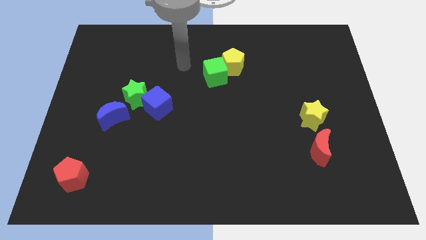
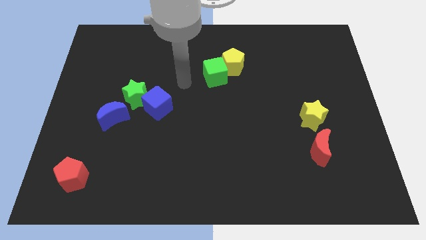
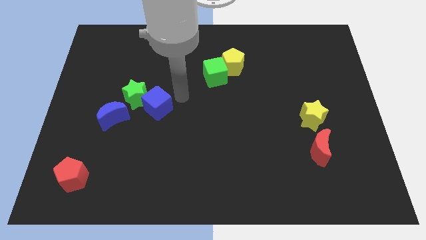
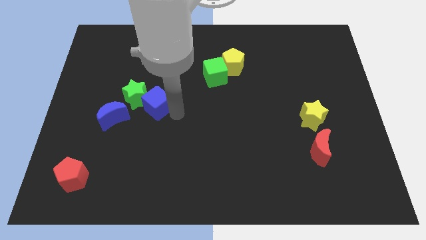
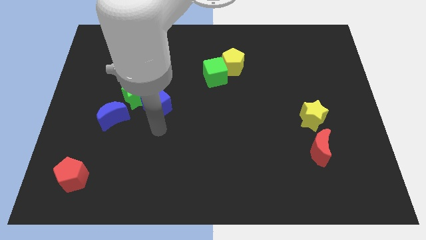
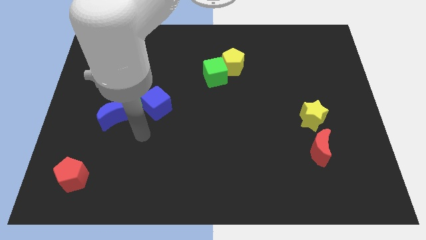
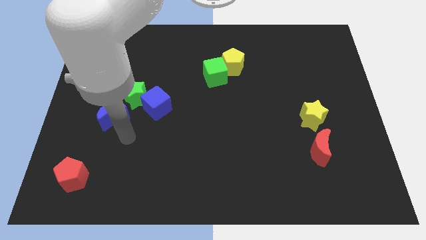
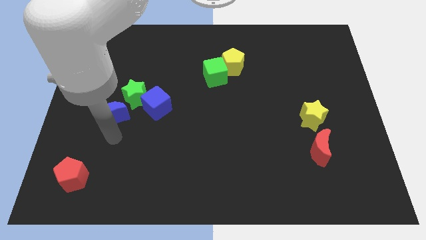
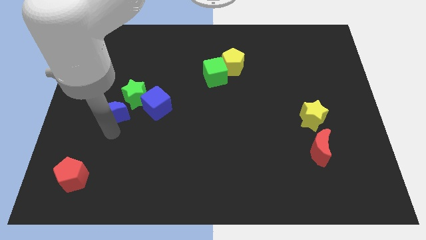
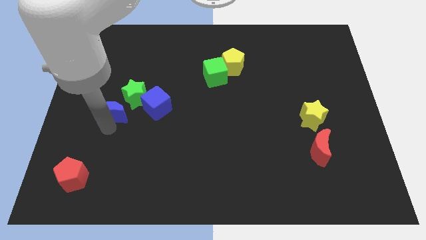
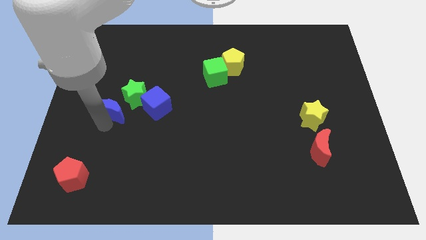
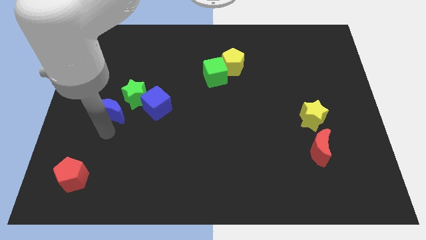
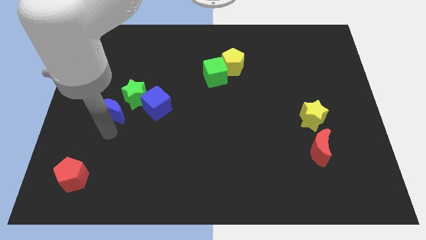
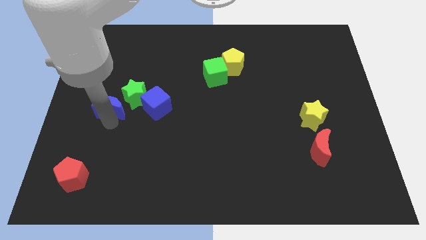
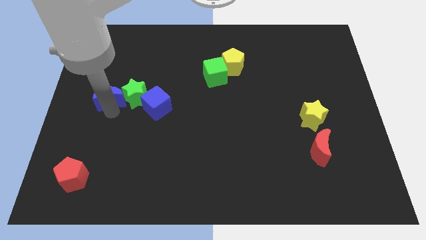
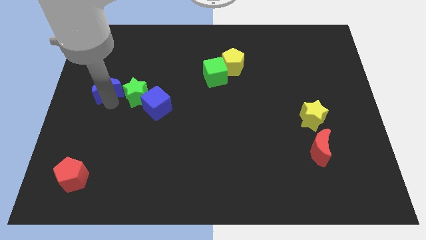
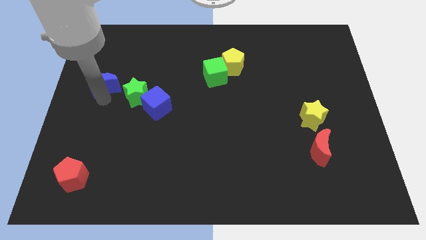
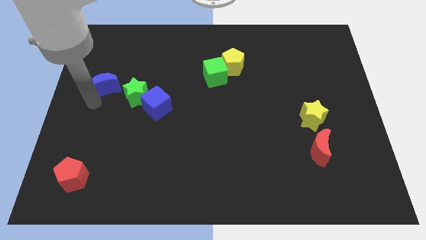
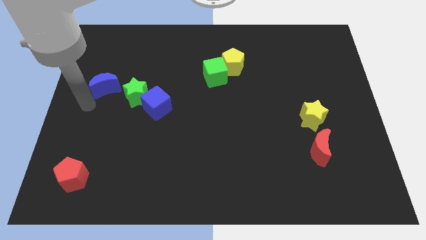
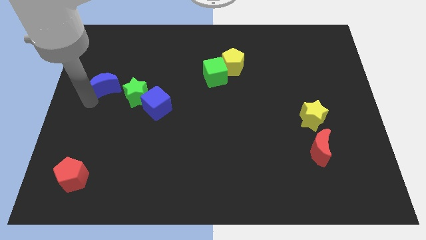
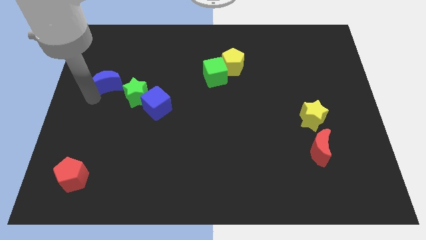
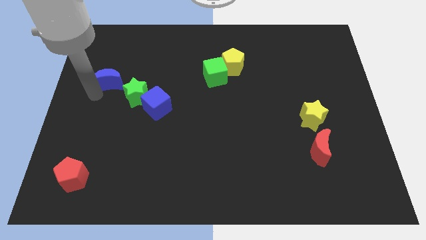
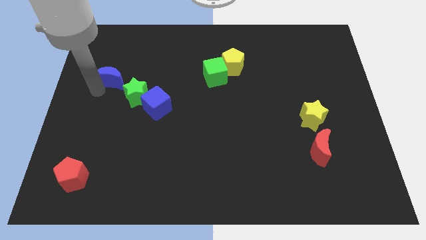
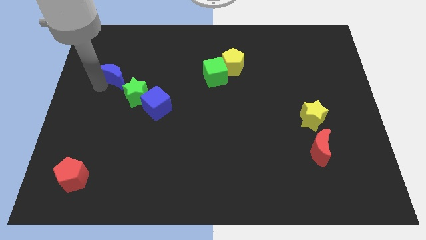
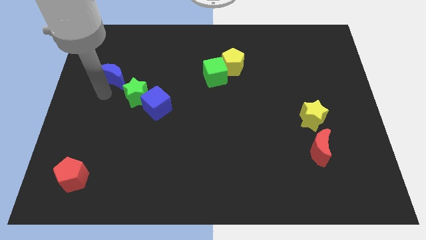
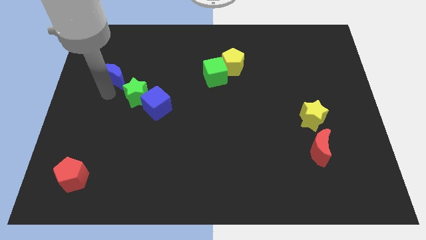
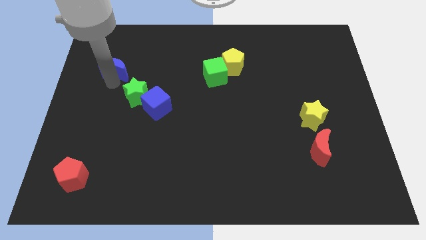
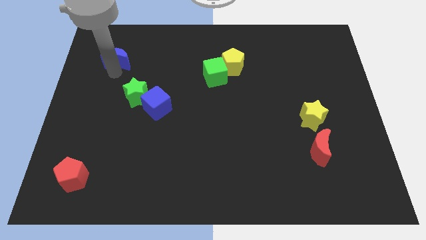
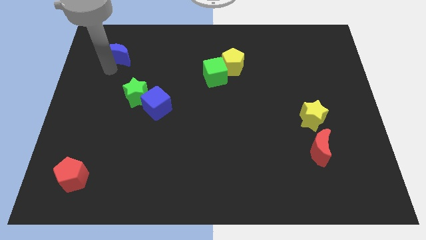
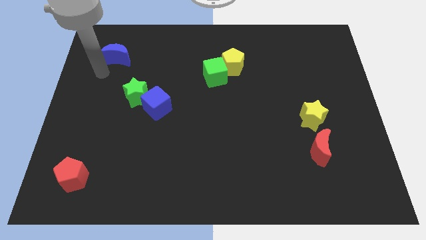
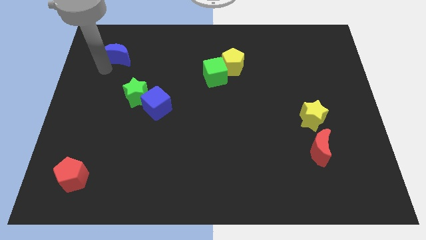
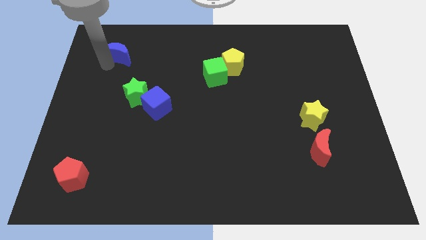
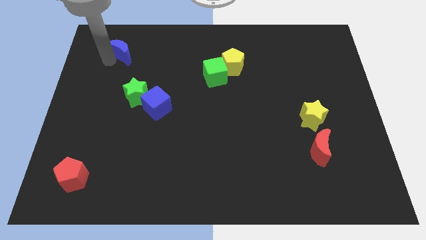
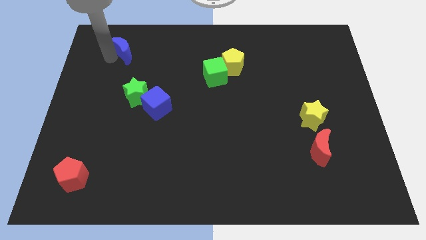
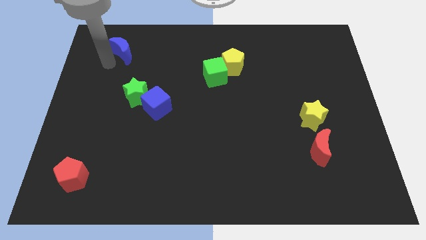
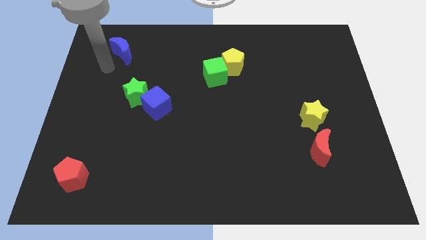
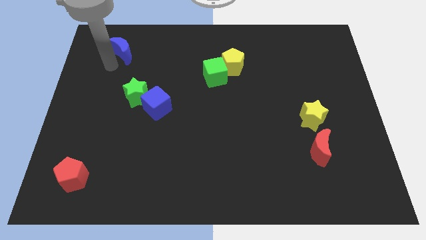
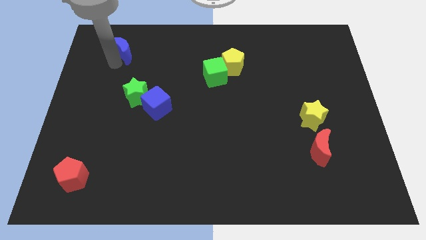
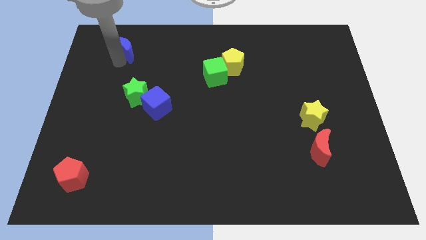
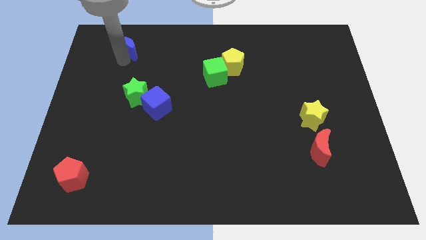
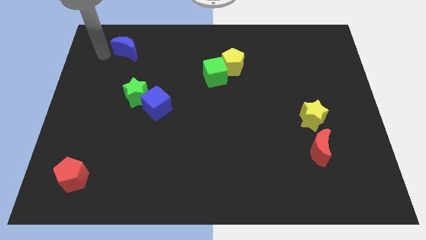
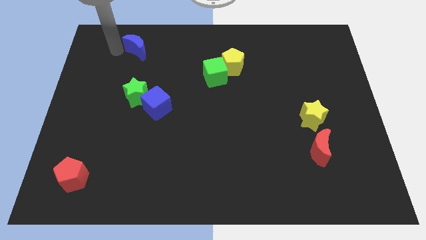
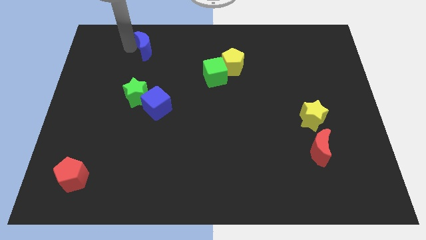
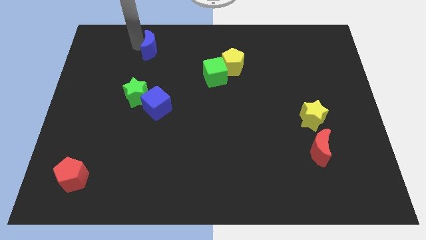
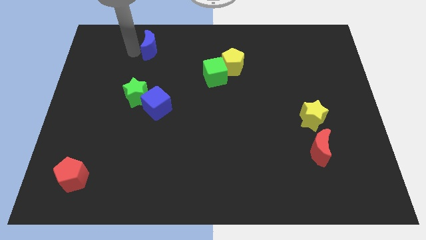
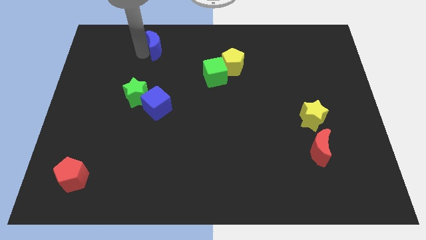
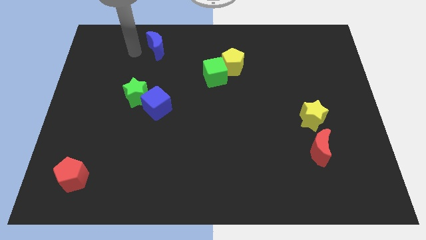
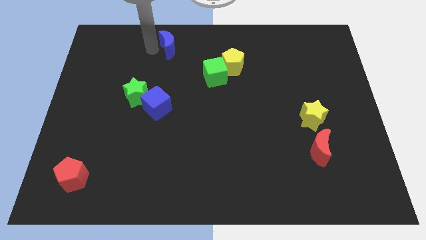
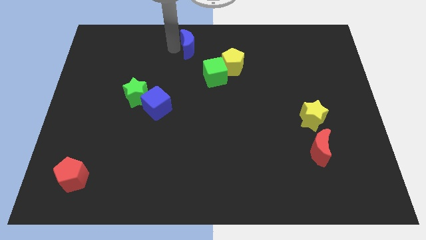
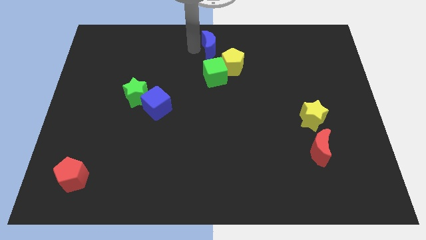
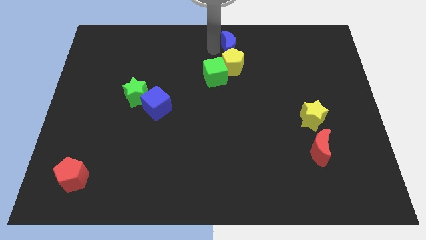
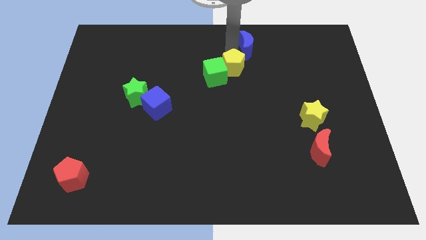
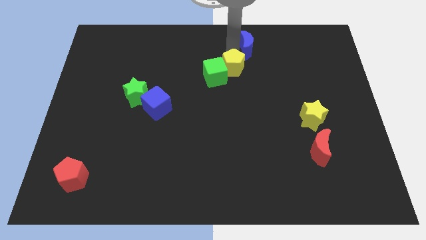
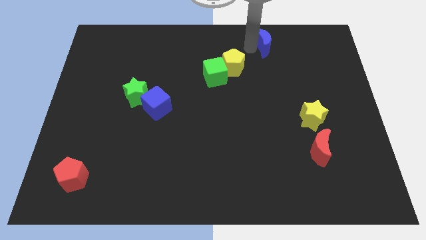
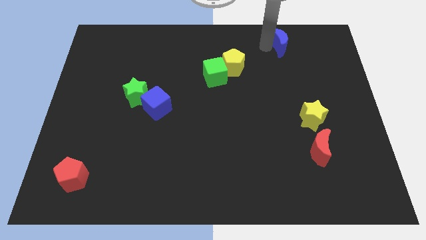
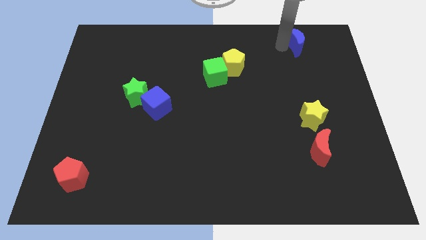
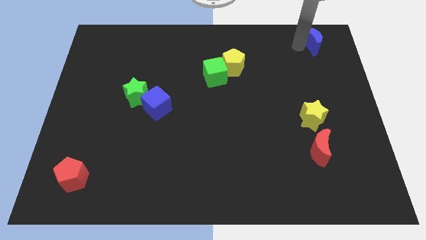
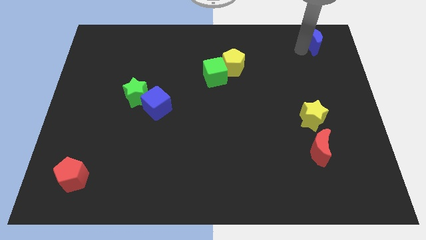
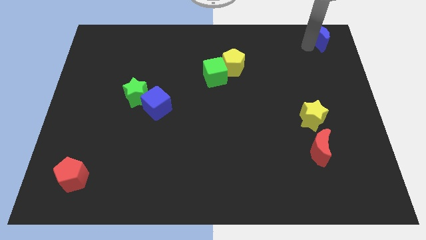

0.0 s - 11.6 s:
move the blue moon to the upper right corner

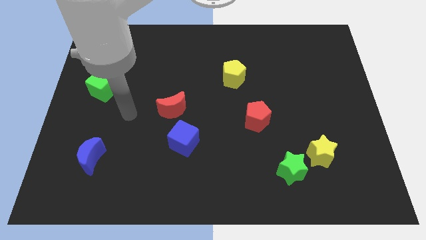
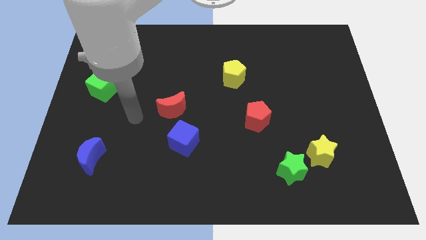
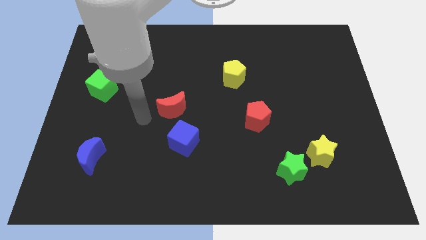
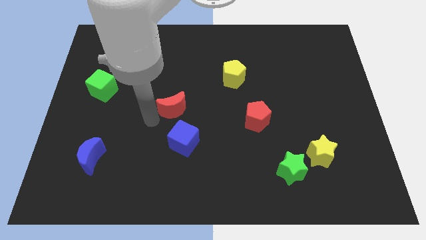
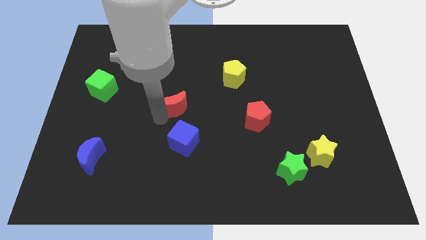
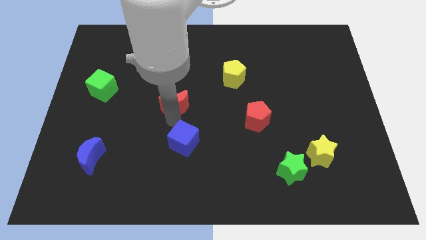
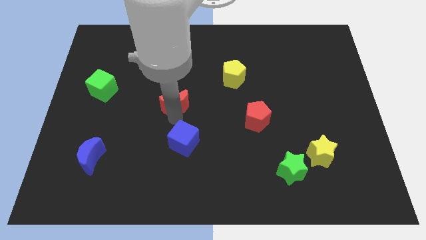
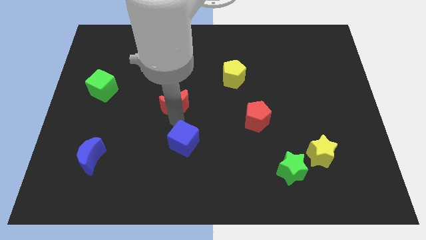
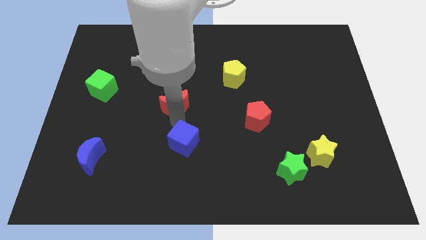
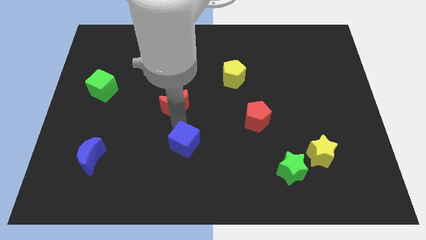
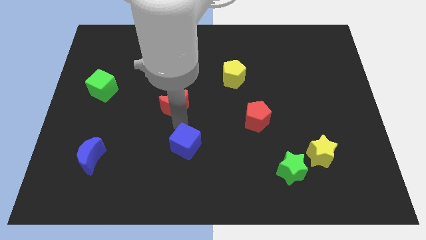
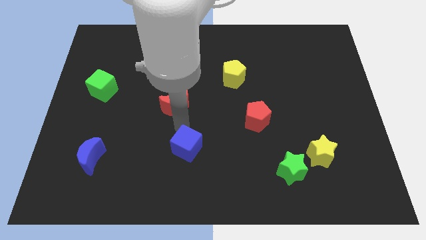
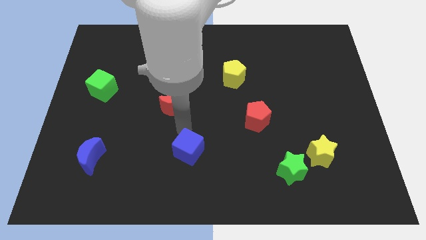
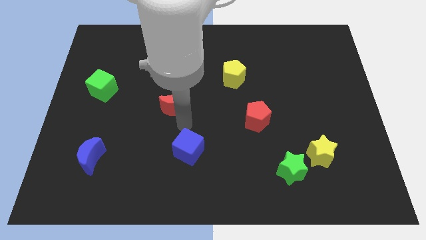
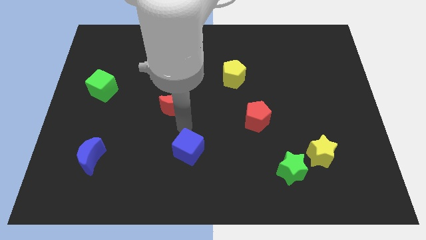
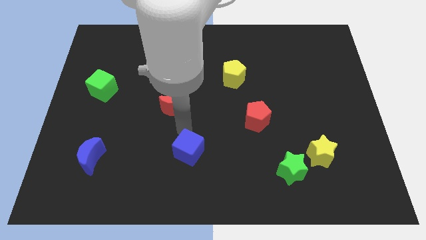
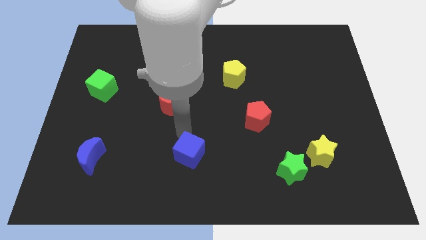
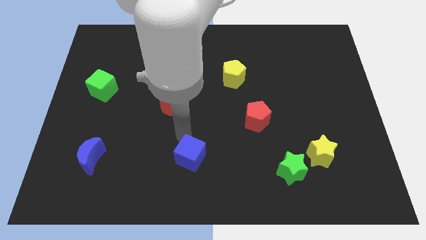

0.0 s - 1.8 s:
put the blue cube to the bottom side
